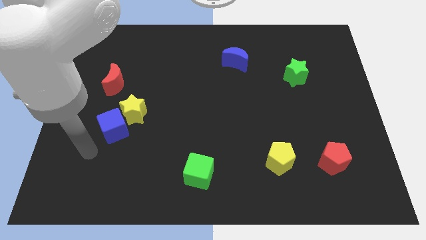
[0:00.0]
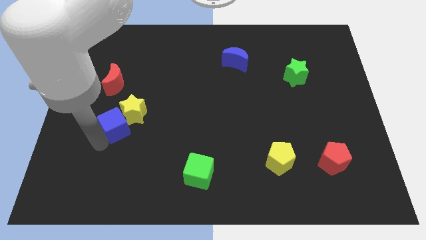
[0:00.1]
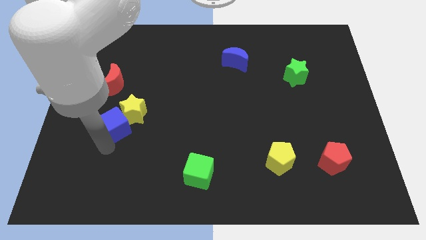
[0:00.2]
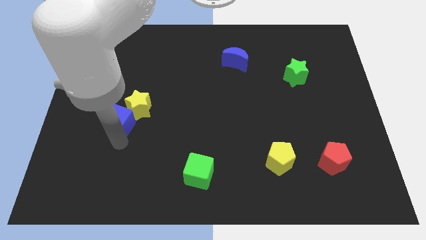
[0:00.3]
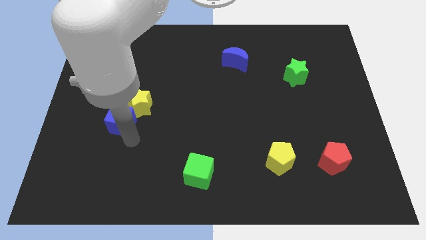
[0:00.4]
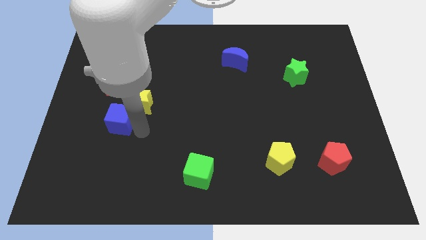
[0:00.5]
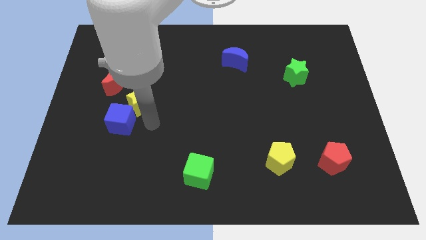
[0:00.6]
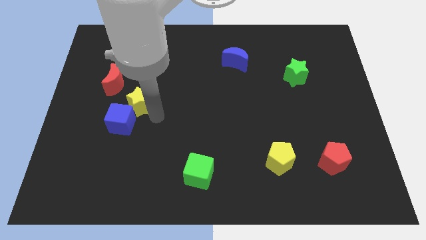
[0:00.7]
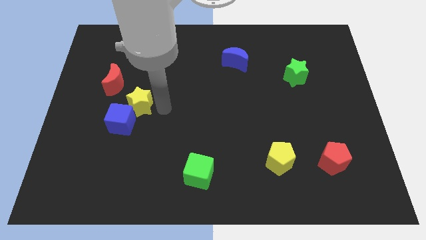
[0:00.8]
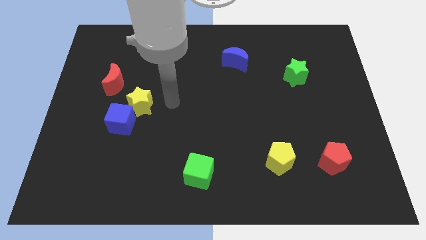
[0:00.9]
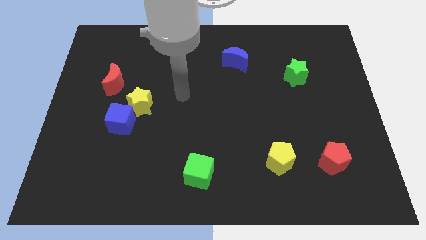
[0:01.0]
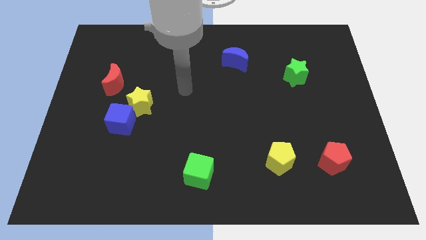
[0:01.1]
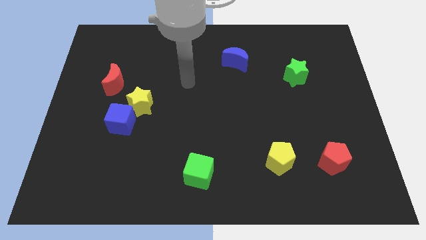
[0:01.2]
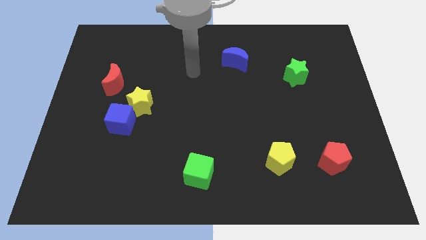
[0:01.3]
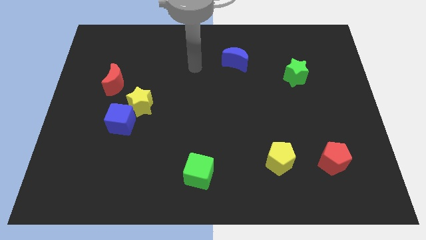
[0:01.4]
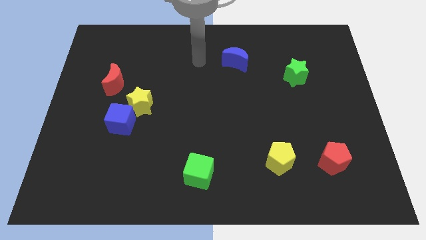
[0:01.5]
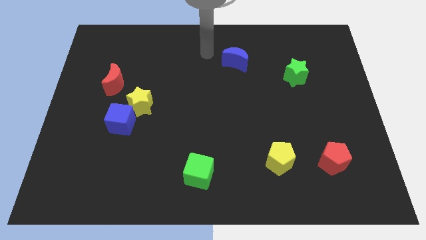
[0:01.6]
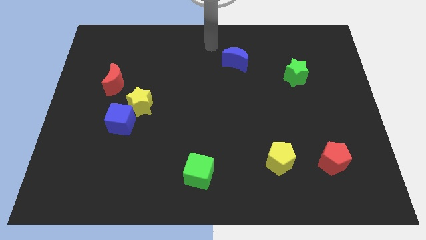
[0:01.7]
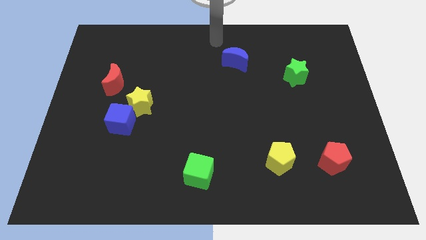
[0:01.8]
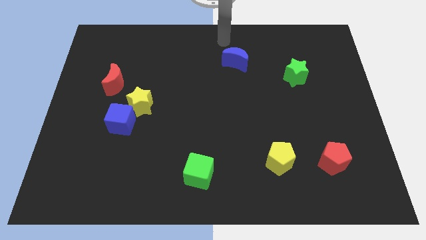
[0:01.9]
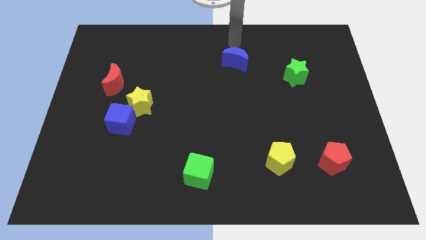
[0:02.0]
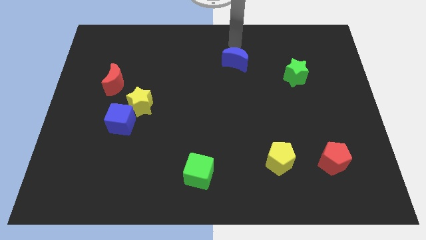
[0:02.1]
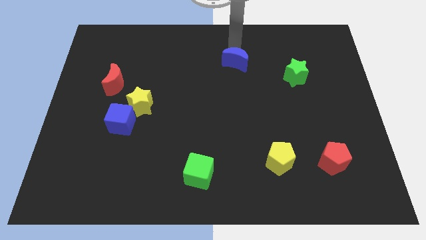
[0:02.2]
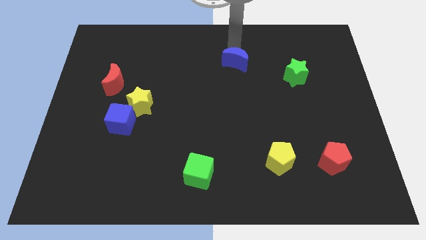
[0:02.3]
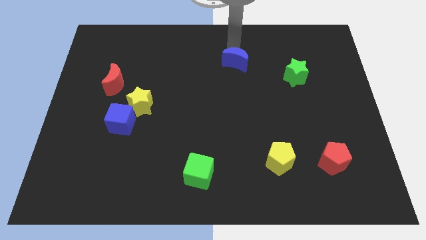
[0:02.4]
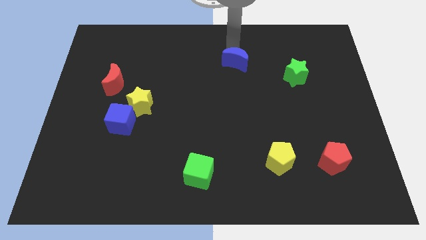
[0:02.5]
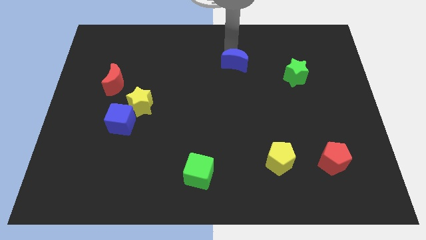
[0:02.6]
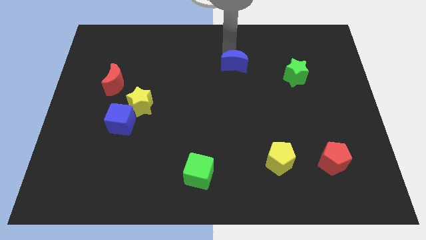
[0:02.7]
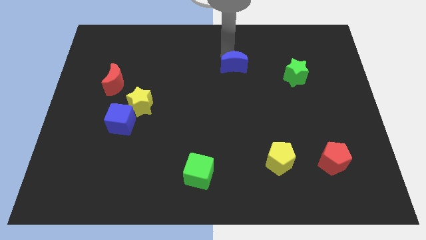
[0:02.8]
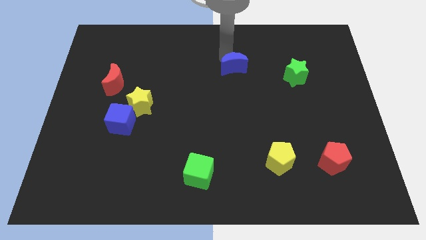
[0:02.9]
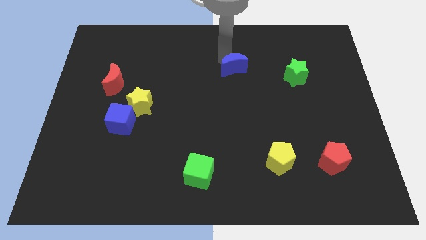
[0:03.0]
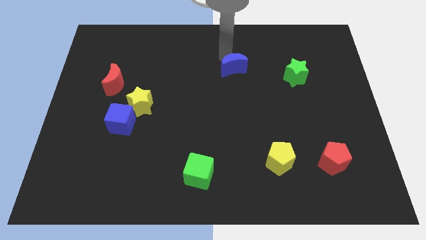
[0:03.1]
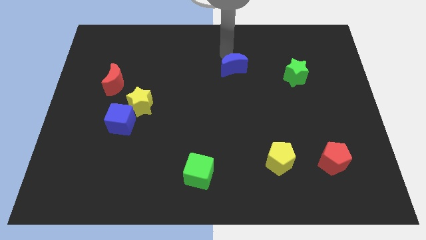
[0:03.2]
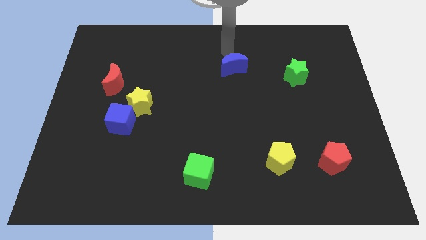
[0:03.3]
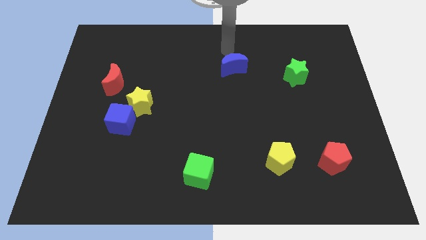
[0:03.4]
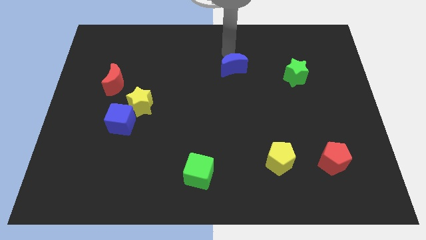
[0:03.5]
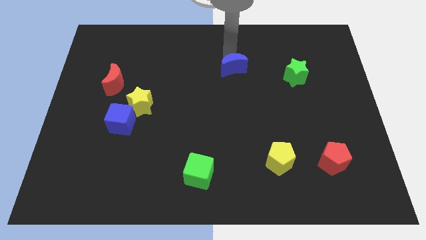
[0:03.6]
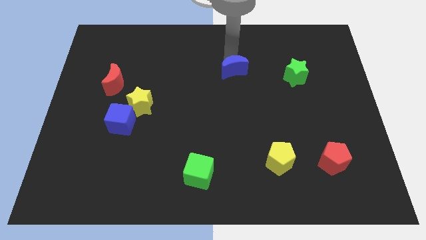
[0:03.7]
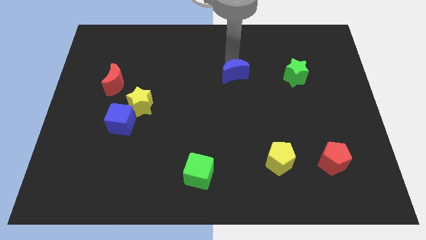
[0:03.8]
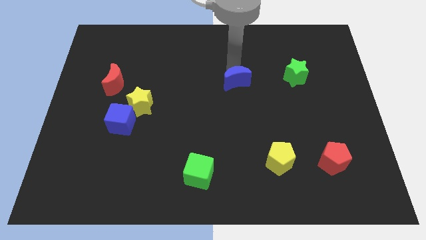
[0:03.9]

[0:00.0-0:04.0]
slightly slide the blue moon downwards

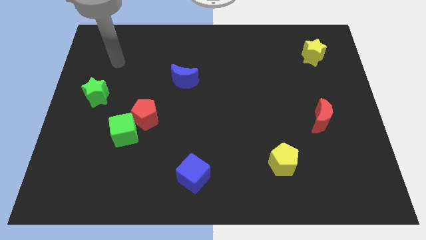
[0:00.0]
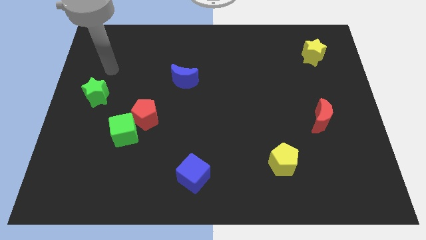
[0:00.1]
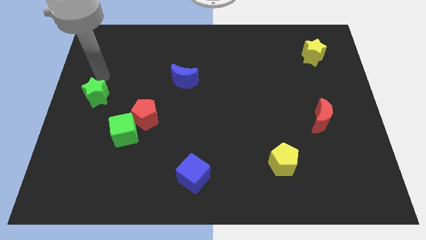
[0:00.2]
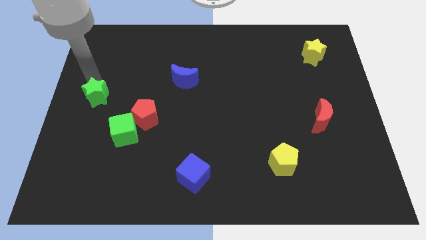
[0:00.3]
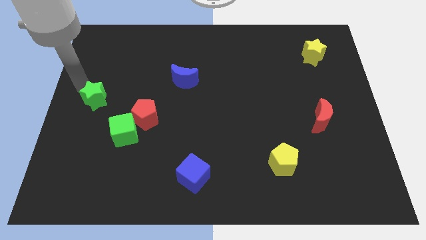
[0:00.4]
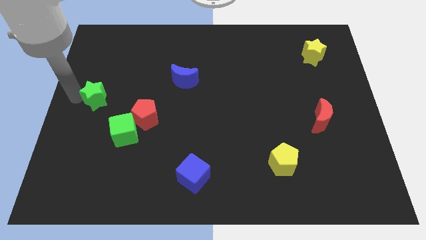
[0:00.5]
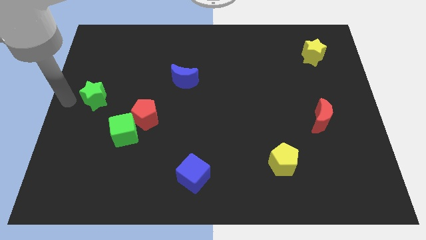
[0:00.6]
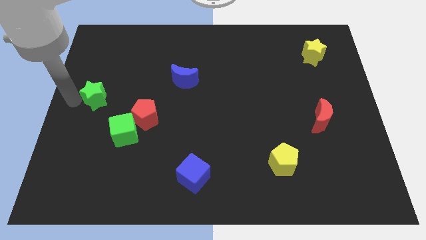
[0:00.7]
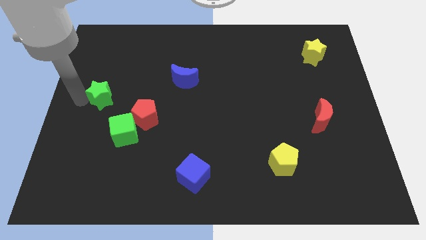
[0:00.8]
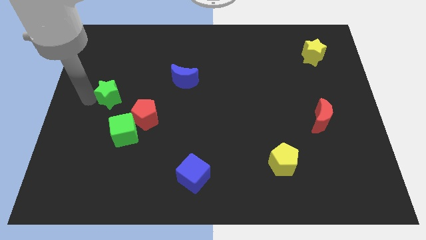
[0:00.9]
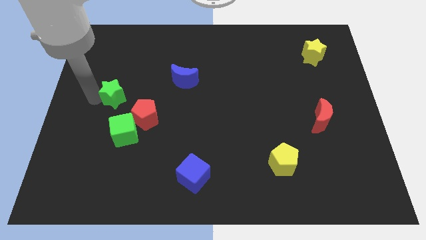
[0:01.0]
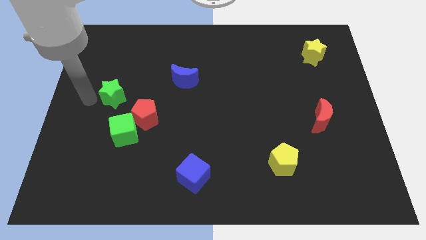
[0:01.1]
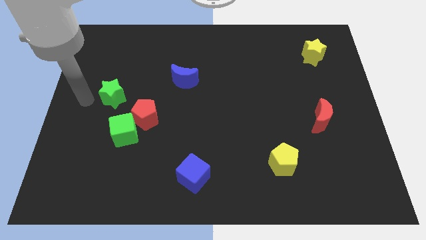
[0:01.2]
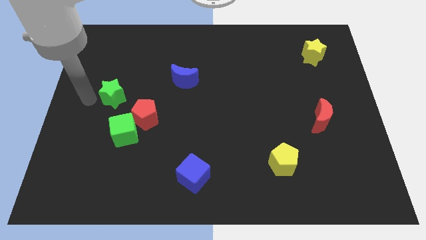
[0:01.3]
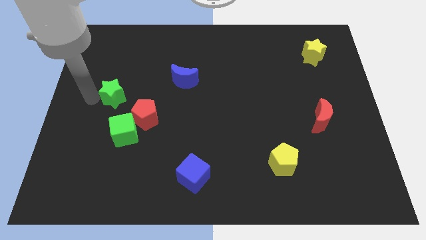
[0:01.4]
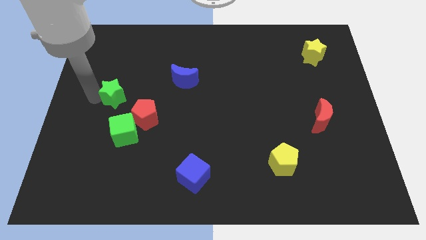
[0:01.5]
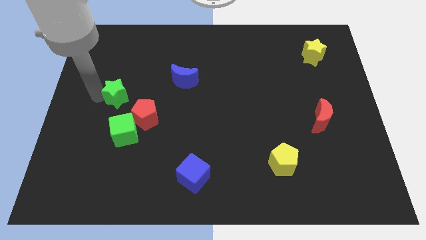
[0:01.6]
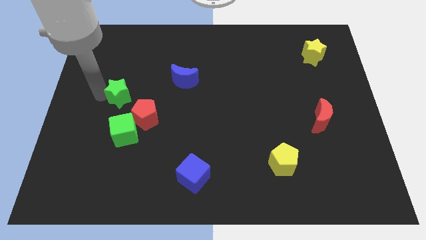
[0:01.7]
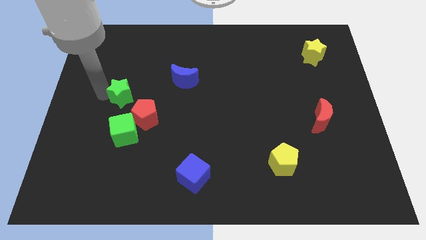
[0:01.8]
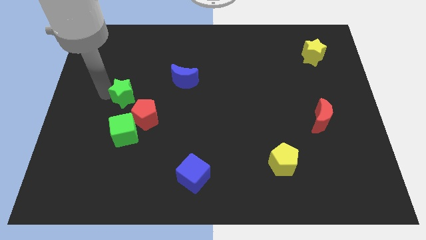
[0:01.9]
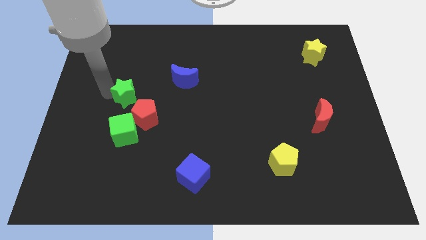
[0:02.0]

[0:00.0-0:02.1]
slightly move the green star to the right

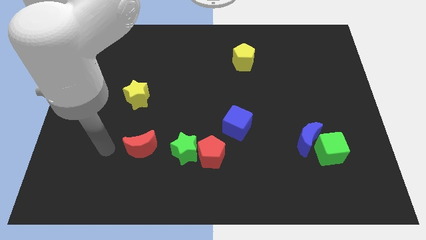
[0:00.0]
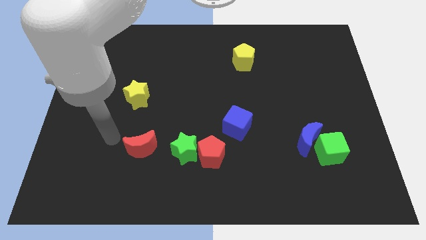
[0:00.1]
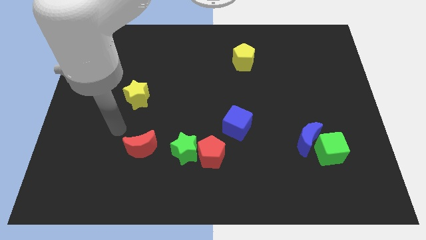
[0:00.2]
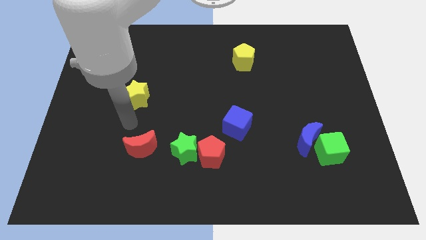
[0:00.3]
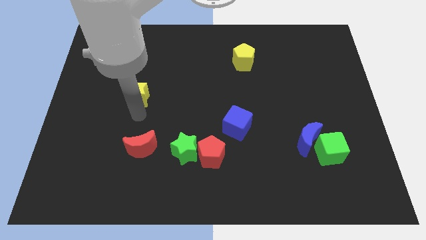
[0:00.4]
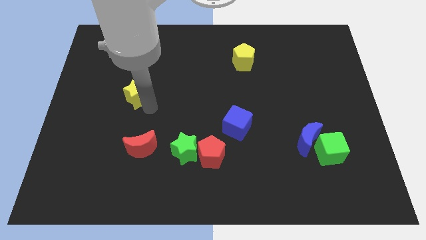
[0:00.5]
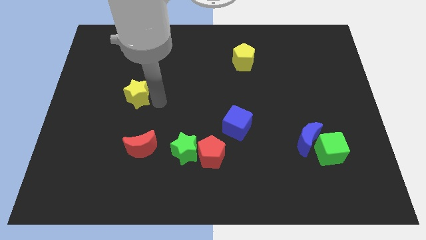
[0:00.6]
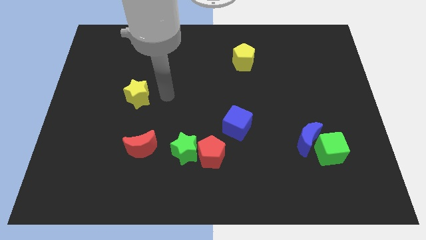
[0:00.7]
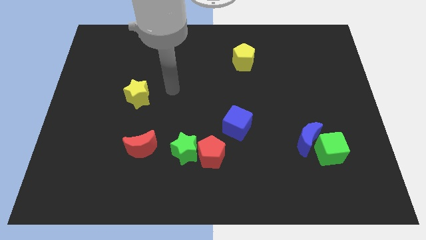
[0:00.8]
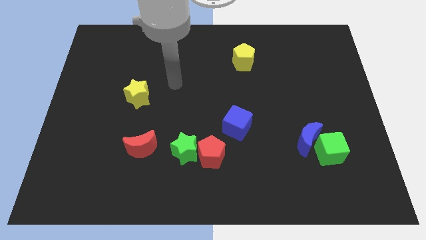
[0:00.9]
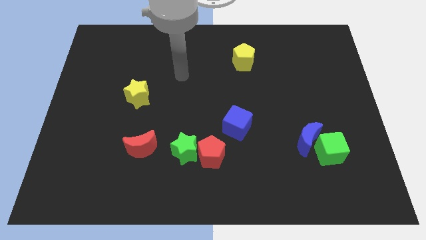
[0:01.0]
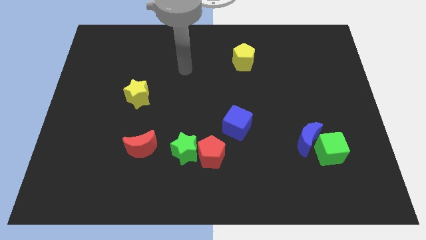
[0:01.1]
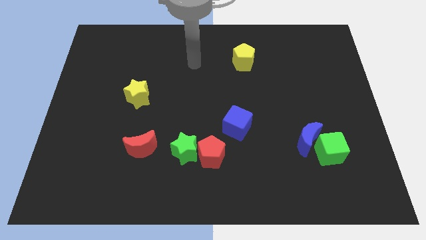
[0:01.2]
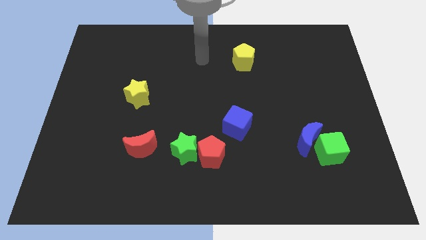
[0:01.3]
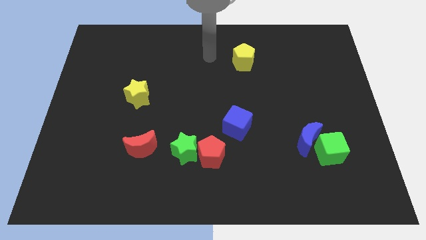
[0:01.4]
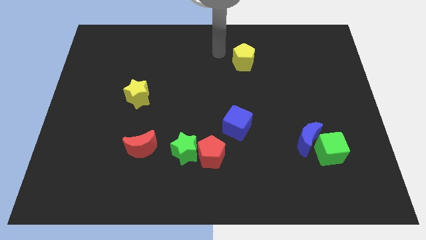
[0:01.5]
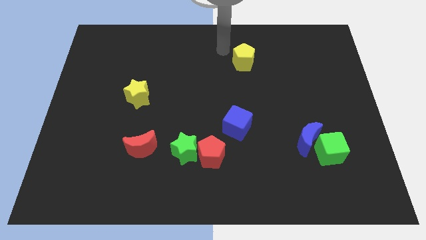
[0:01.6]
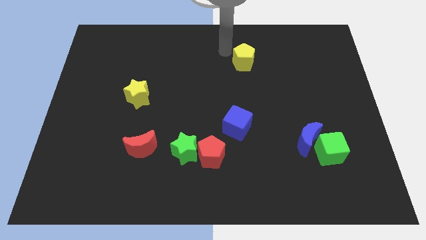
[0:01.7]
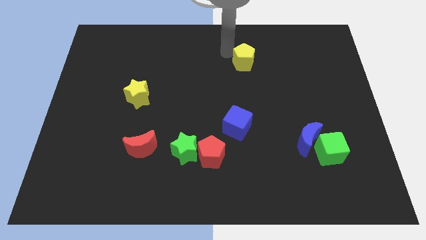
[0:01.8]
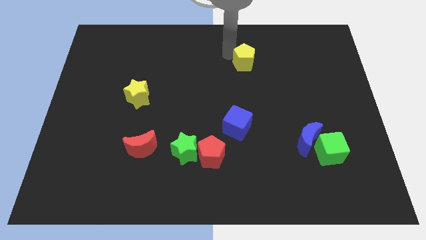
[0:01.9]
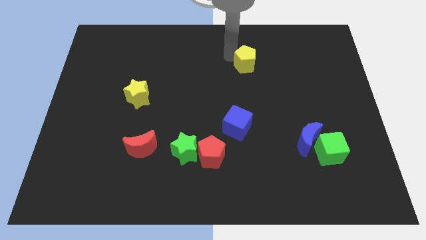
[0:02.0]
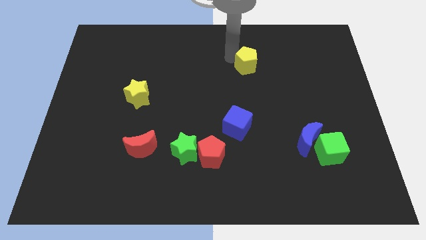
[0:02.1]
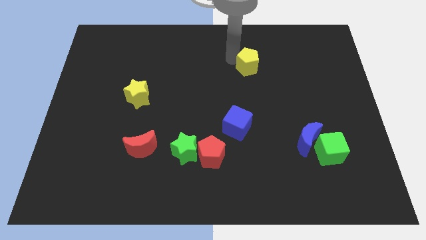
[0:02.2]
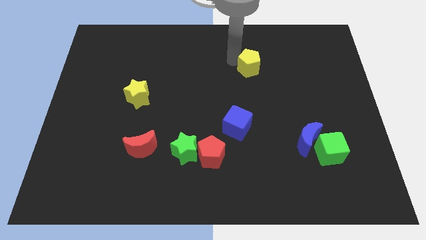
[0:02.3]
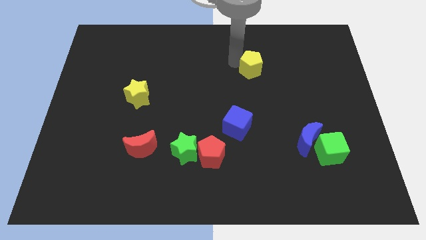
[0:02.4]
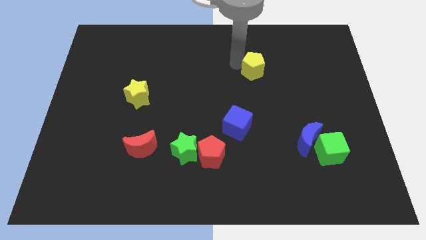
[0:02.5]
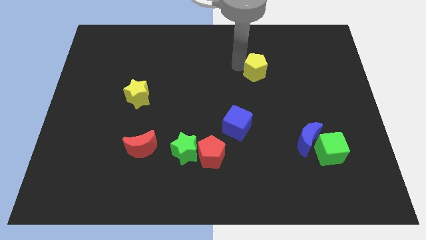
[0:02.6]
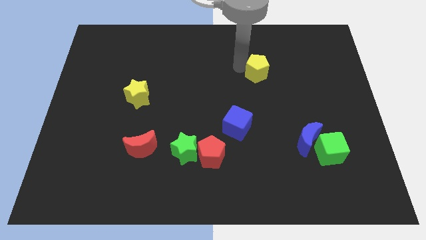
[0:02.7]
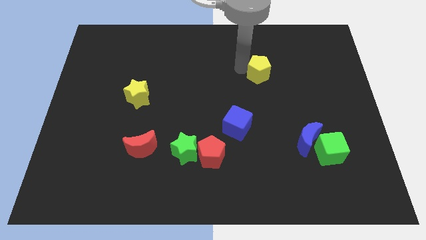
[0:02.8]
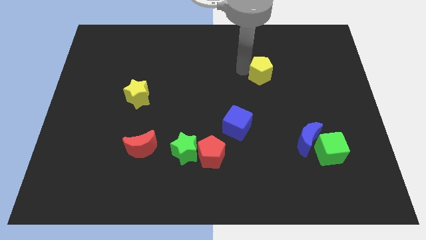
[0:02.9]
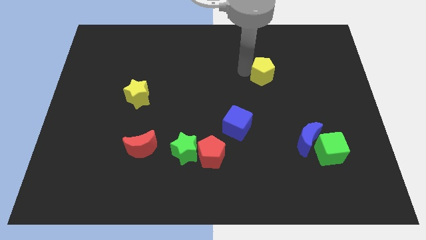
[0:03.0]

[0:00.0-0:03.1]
push the yellow pentagon down and to the right diagonally somewhat
